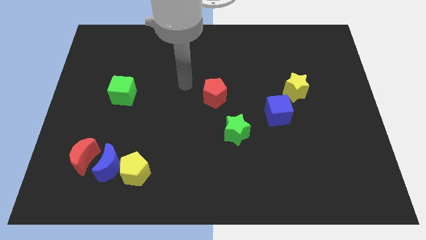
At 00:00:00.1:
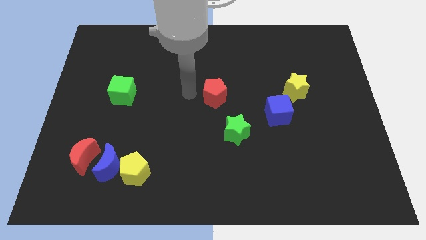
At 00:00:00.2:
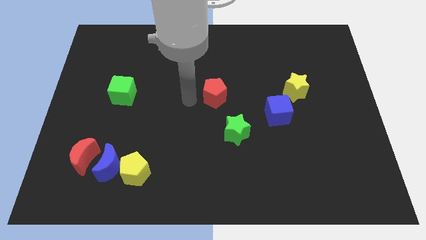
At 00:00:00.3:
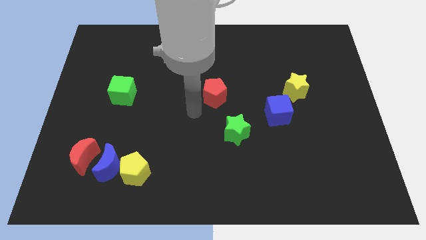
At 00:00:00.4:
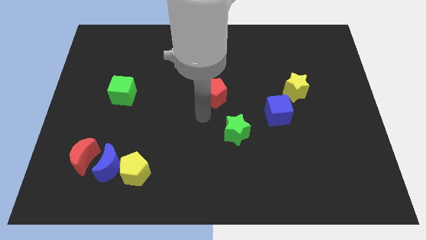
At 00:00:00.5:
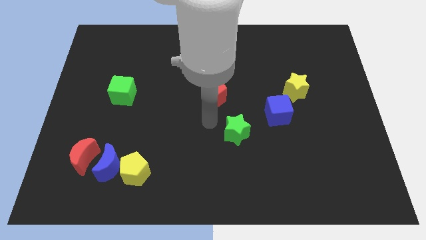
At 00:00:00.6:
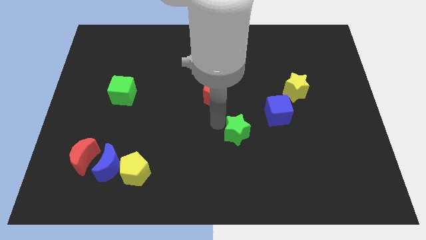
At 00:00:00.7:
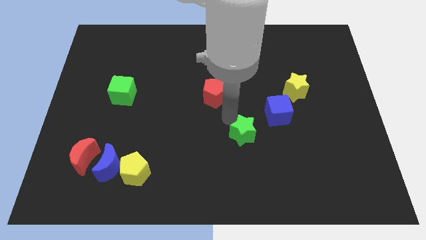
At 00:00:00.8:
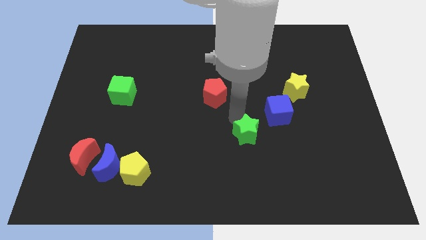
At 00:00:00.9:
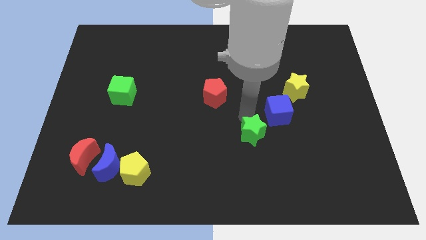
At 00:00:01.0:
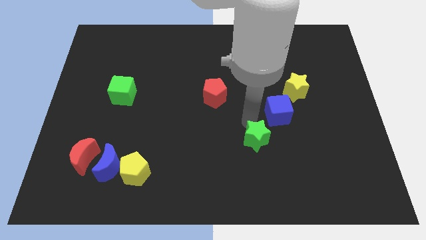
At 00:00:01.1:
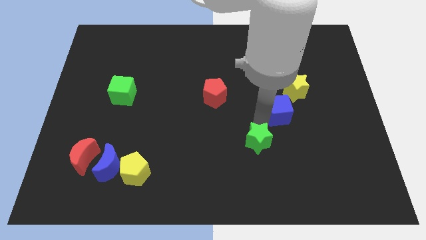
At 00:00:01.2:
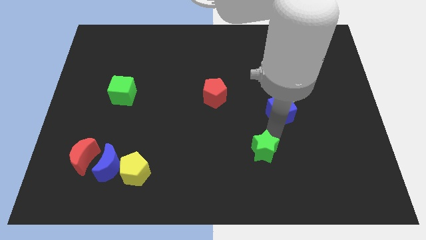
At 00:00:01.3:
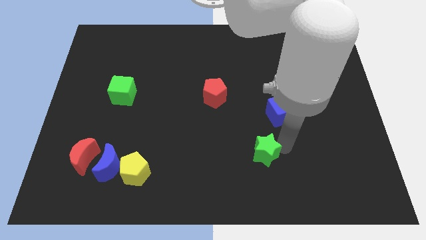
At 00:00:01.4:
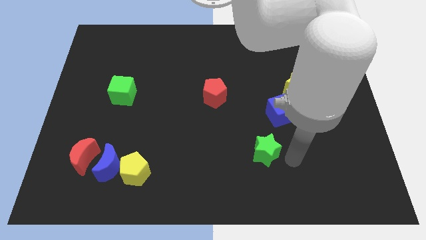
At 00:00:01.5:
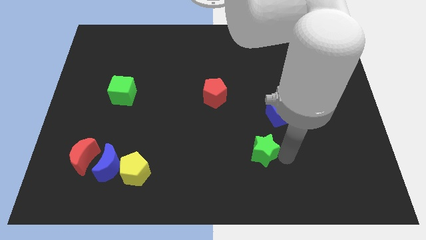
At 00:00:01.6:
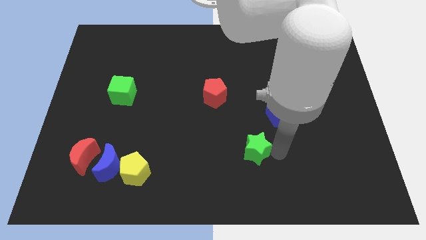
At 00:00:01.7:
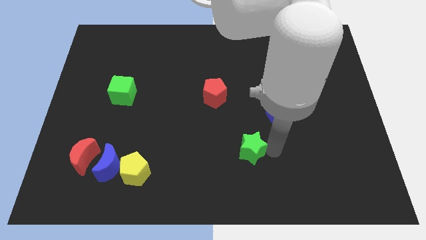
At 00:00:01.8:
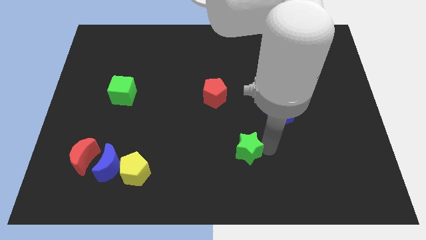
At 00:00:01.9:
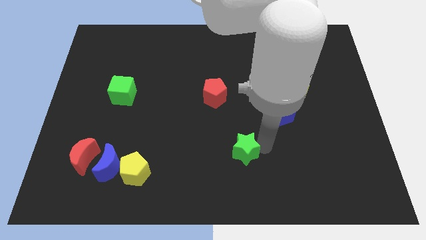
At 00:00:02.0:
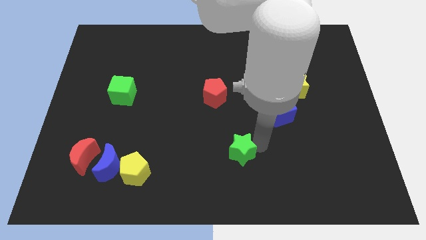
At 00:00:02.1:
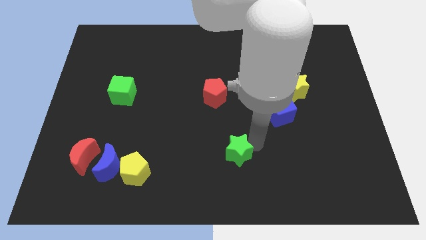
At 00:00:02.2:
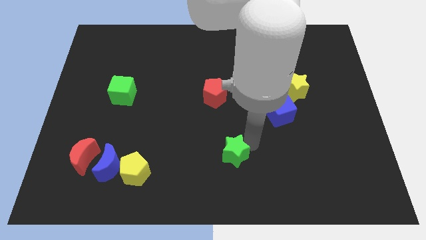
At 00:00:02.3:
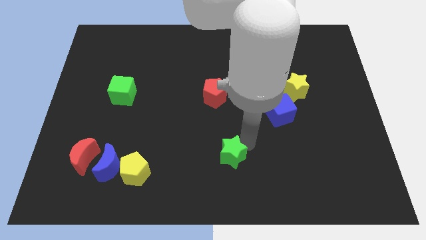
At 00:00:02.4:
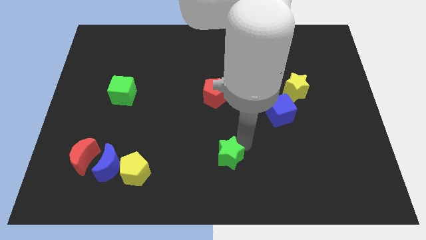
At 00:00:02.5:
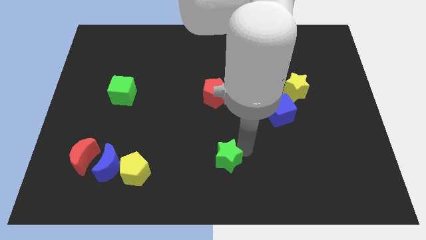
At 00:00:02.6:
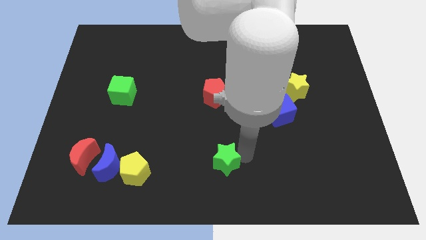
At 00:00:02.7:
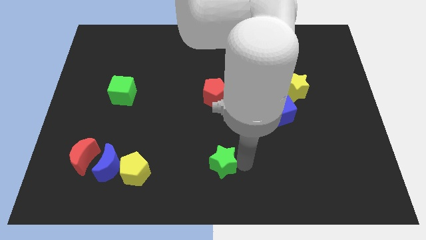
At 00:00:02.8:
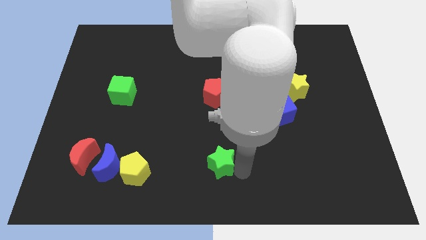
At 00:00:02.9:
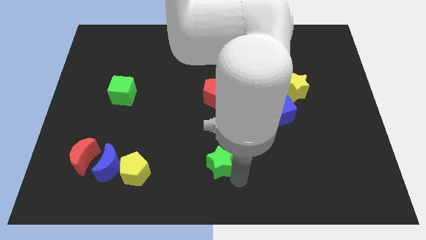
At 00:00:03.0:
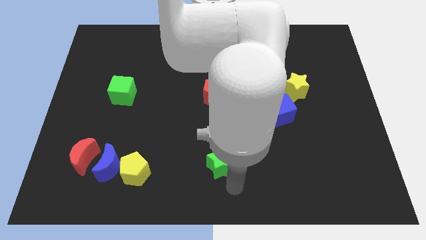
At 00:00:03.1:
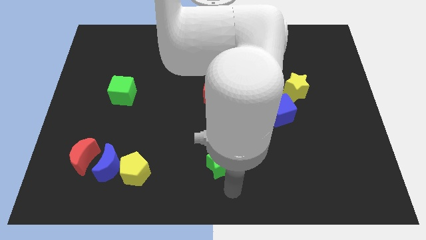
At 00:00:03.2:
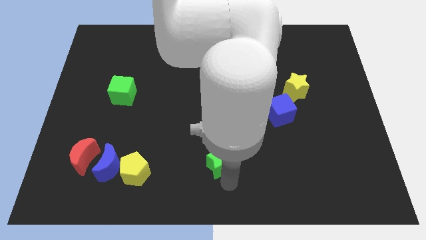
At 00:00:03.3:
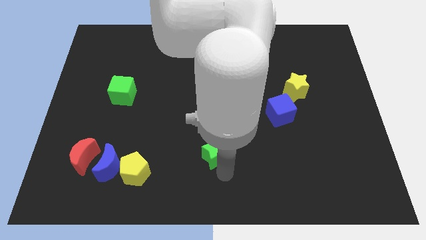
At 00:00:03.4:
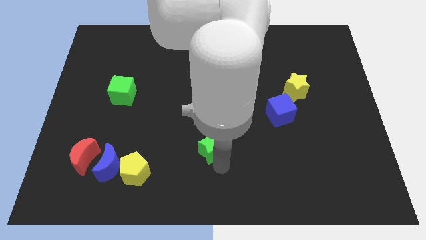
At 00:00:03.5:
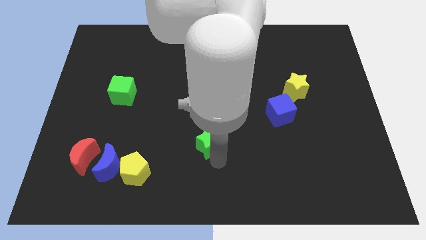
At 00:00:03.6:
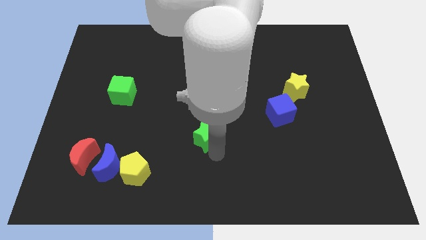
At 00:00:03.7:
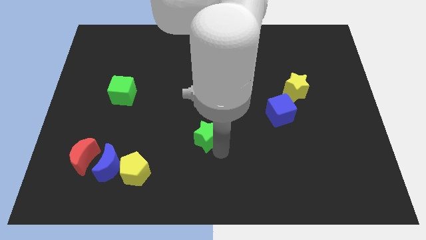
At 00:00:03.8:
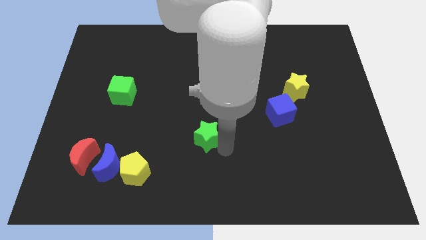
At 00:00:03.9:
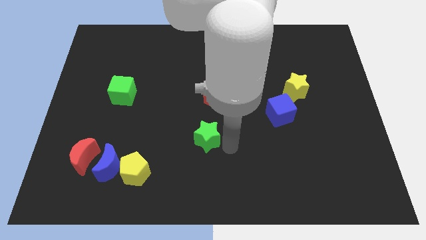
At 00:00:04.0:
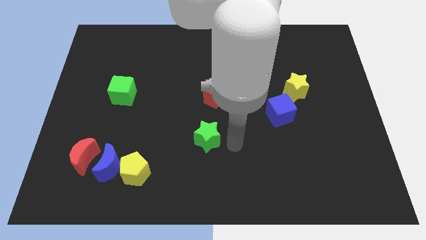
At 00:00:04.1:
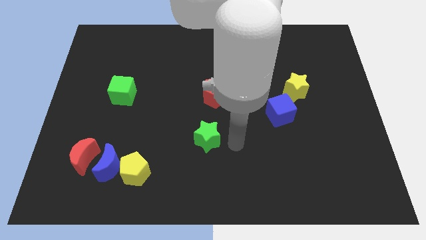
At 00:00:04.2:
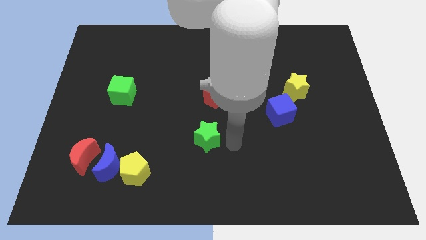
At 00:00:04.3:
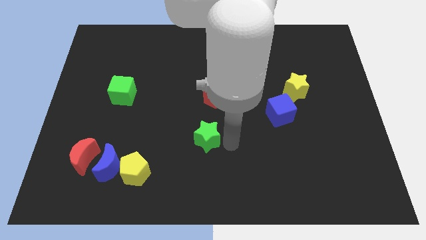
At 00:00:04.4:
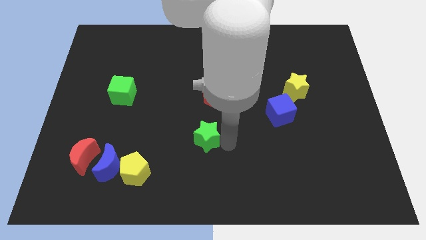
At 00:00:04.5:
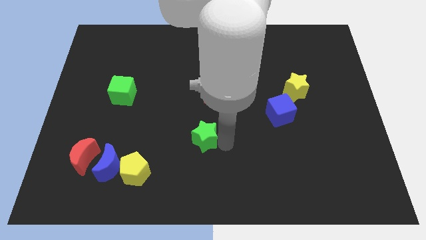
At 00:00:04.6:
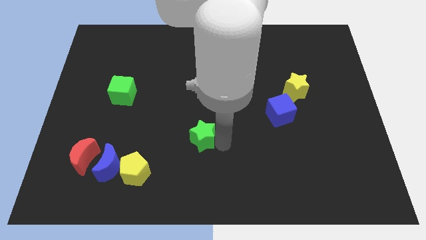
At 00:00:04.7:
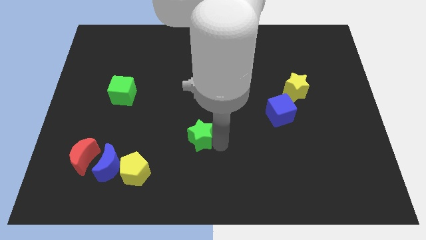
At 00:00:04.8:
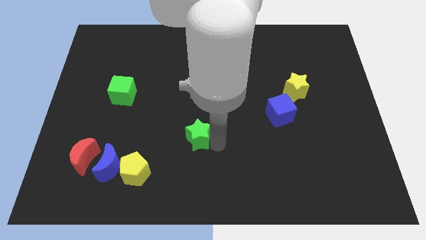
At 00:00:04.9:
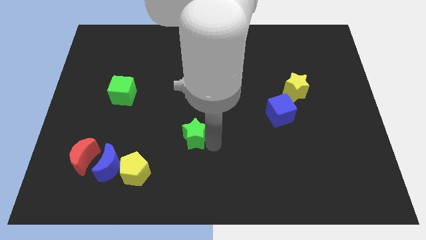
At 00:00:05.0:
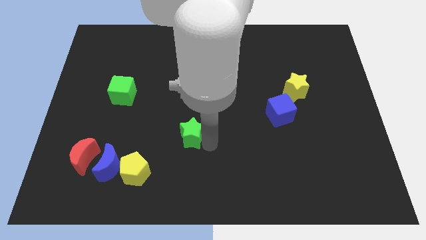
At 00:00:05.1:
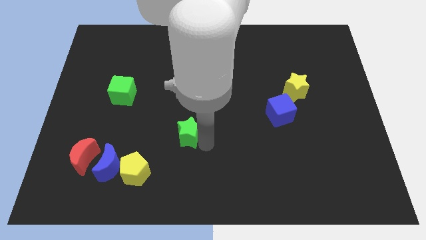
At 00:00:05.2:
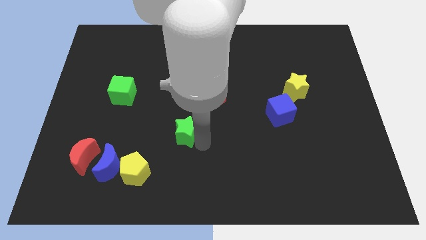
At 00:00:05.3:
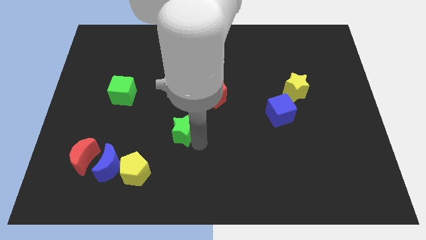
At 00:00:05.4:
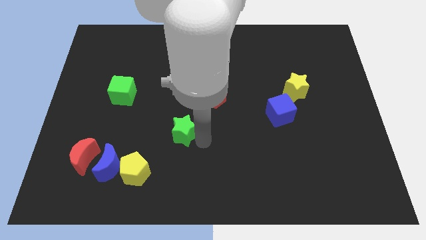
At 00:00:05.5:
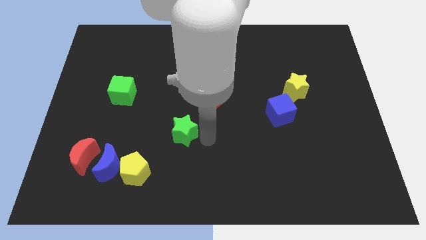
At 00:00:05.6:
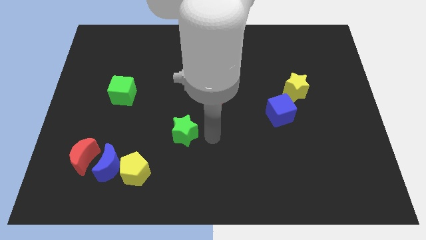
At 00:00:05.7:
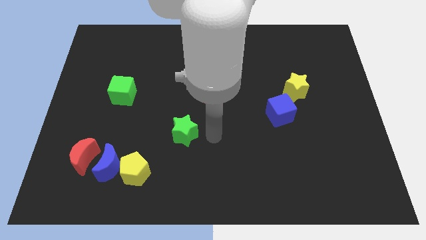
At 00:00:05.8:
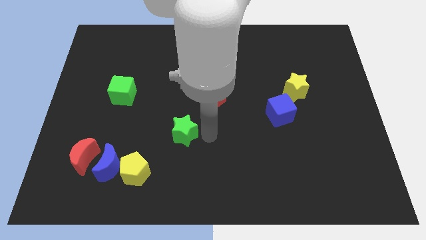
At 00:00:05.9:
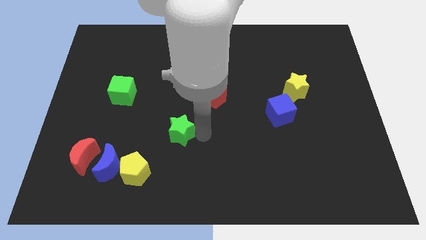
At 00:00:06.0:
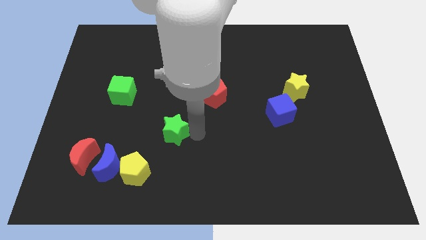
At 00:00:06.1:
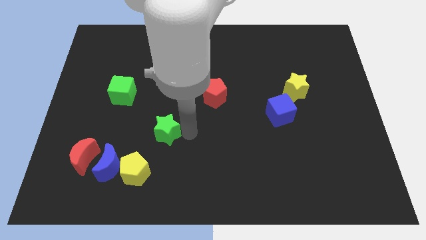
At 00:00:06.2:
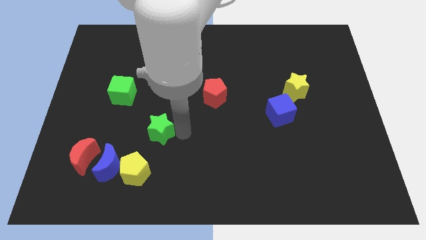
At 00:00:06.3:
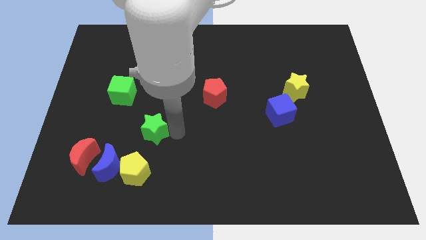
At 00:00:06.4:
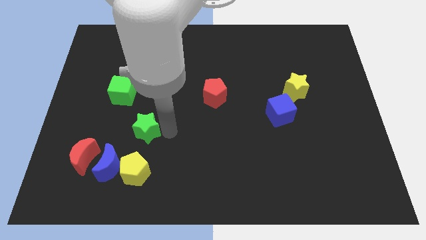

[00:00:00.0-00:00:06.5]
slide the green star to the left

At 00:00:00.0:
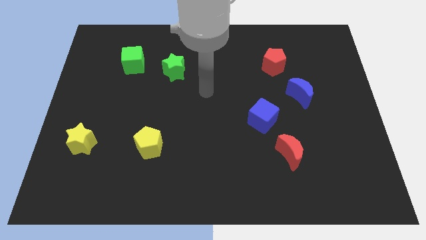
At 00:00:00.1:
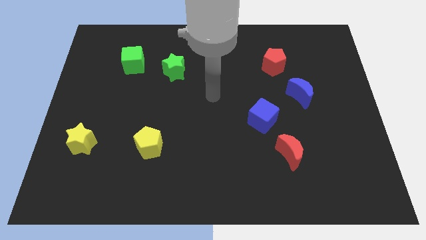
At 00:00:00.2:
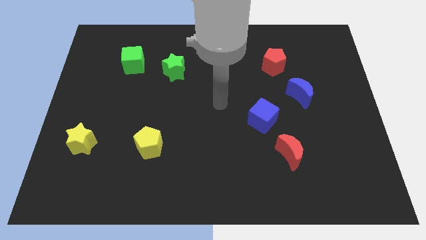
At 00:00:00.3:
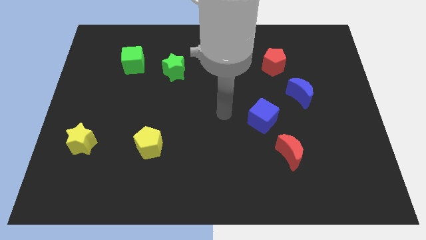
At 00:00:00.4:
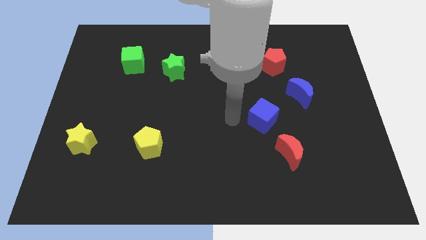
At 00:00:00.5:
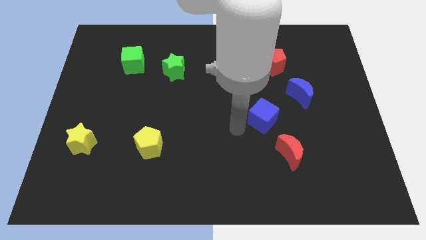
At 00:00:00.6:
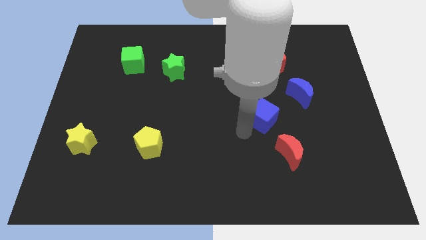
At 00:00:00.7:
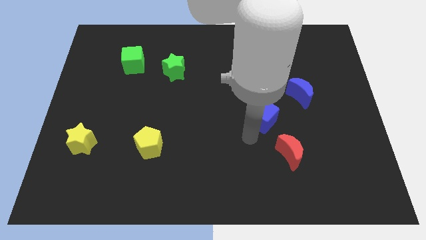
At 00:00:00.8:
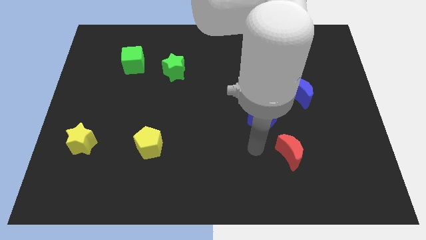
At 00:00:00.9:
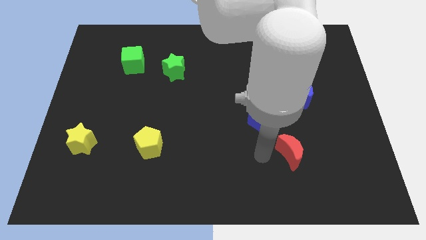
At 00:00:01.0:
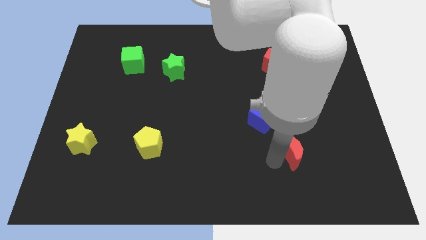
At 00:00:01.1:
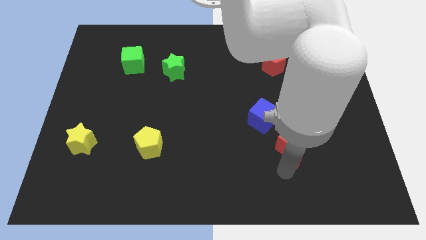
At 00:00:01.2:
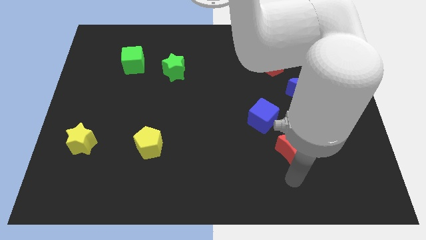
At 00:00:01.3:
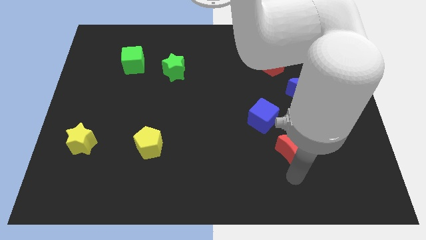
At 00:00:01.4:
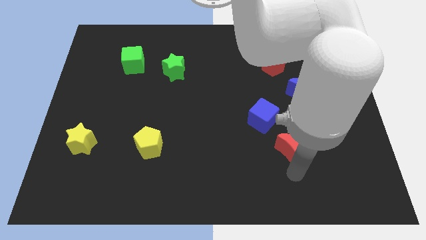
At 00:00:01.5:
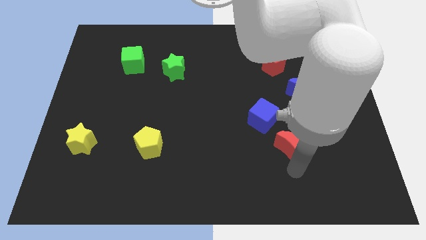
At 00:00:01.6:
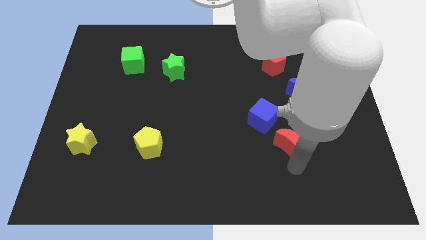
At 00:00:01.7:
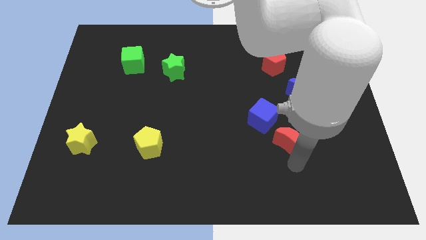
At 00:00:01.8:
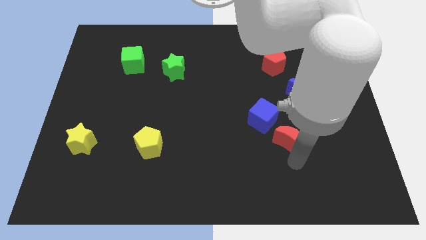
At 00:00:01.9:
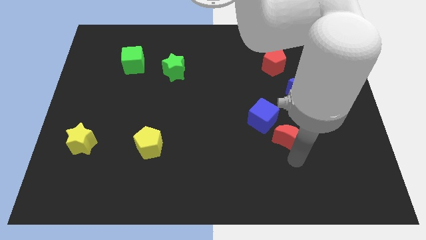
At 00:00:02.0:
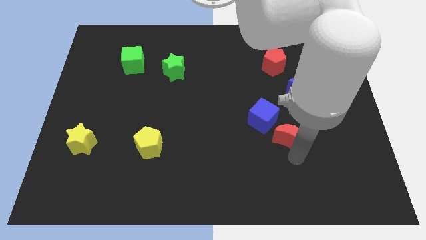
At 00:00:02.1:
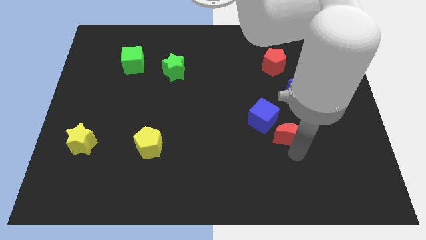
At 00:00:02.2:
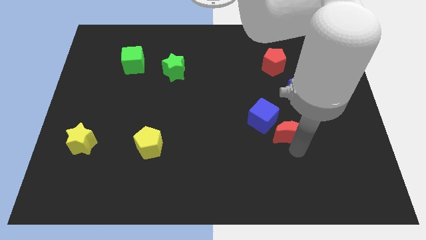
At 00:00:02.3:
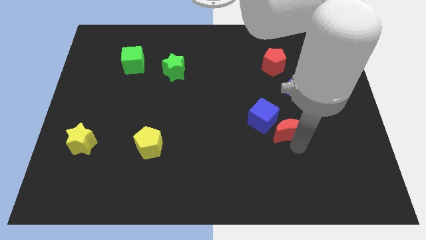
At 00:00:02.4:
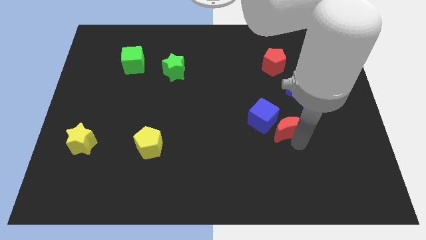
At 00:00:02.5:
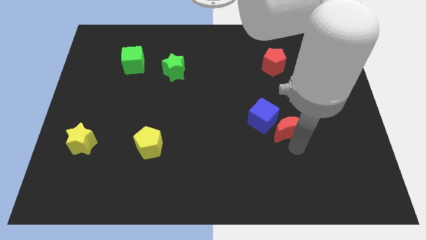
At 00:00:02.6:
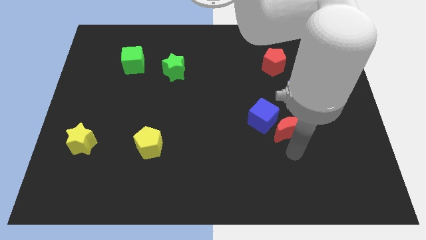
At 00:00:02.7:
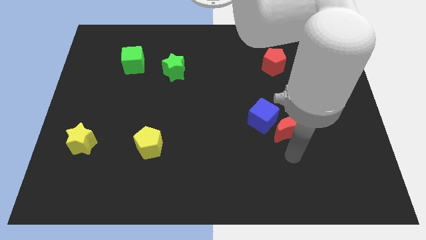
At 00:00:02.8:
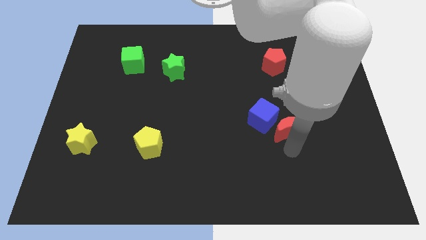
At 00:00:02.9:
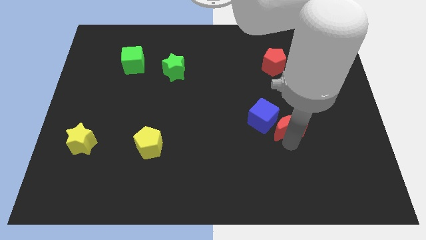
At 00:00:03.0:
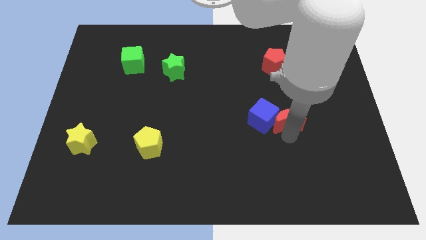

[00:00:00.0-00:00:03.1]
slide the red moon a little bit upwards
